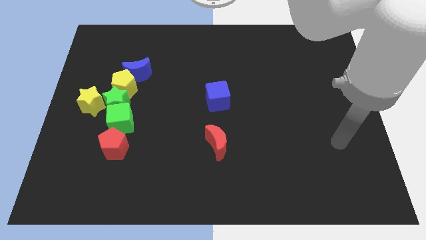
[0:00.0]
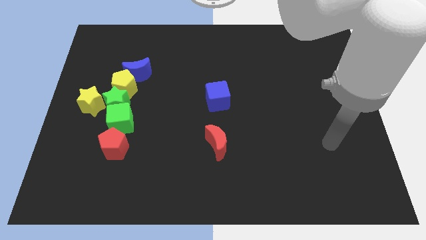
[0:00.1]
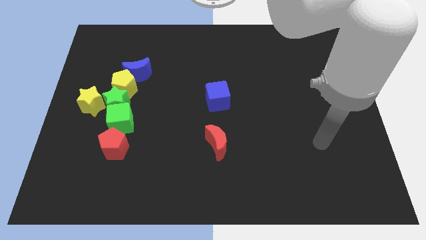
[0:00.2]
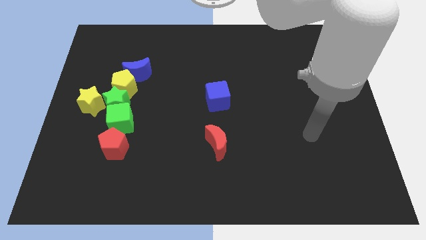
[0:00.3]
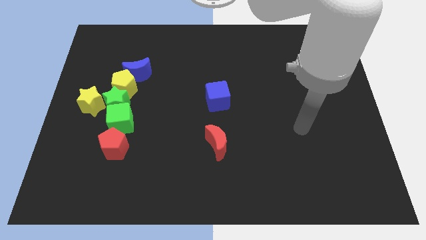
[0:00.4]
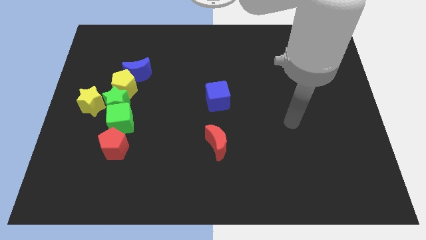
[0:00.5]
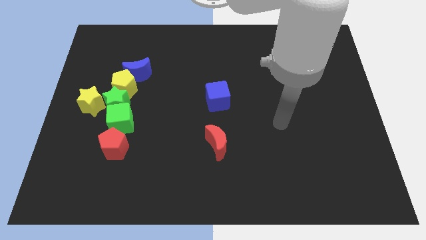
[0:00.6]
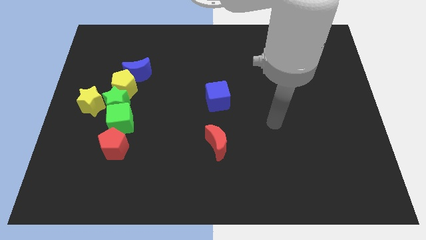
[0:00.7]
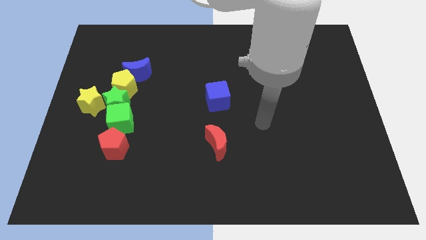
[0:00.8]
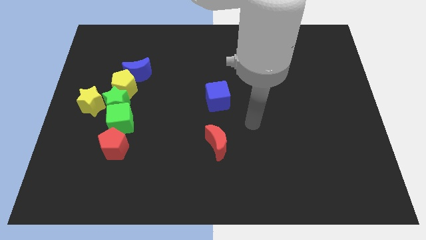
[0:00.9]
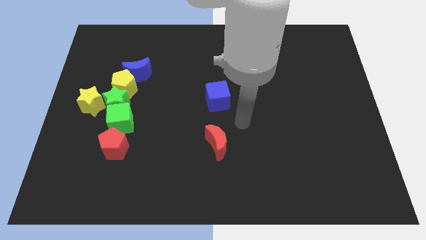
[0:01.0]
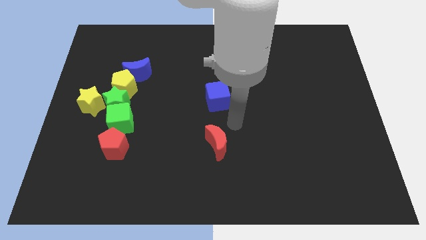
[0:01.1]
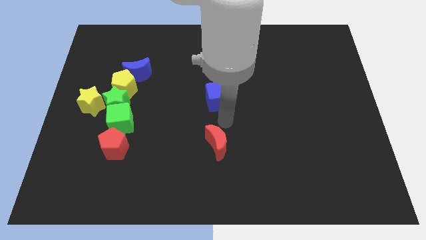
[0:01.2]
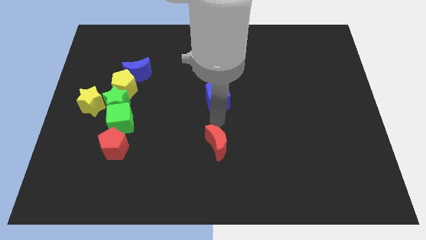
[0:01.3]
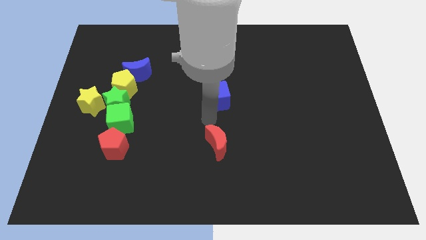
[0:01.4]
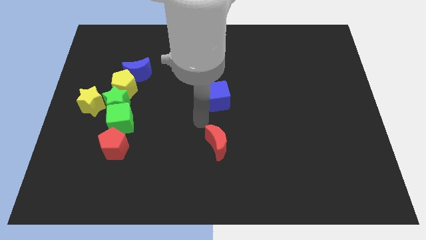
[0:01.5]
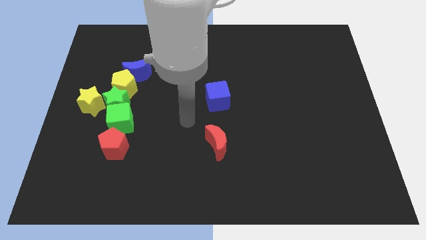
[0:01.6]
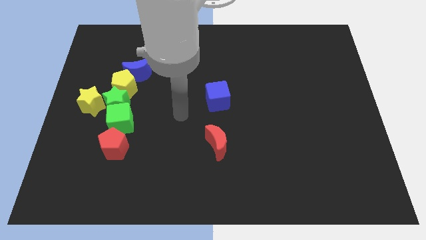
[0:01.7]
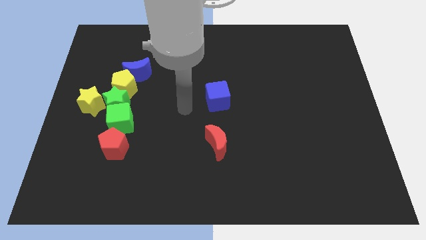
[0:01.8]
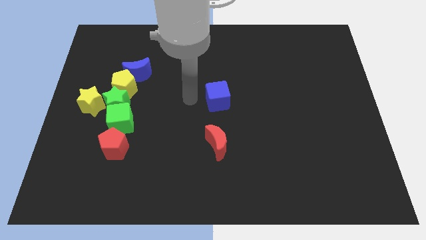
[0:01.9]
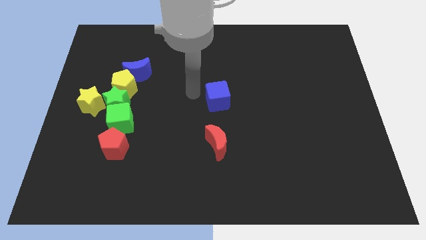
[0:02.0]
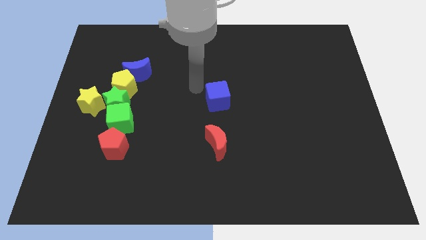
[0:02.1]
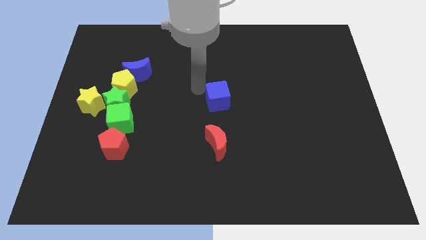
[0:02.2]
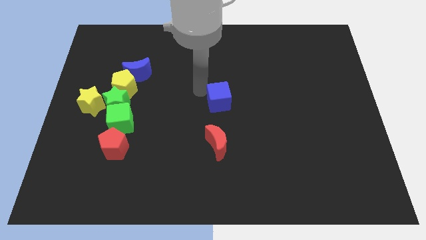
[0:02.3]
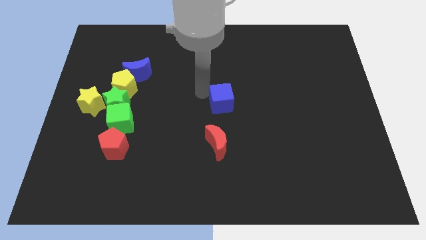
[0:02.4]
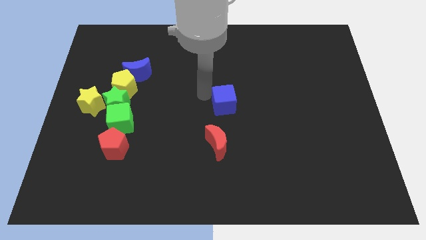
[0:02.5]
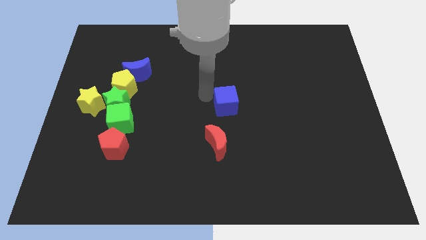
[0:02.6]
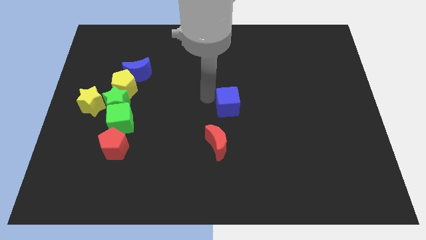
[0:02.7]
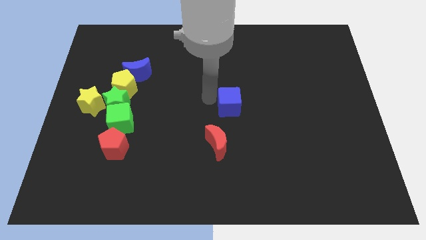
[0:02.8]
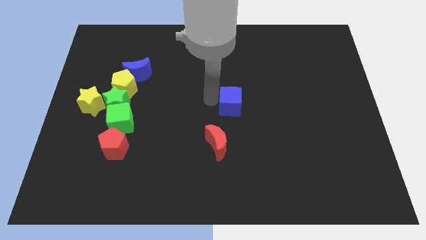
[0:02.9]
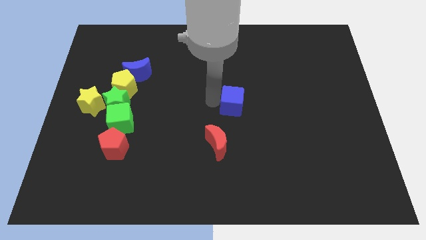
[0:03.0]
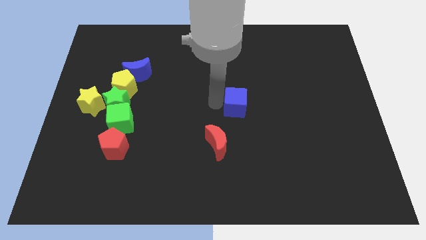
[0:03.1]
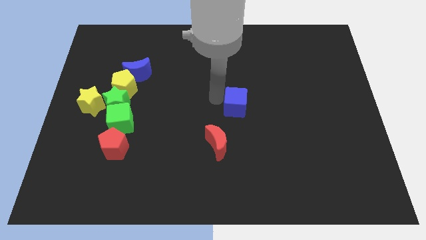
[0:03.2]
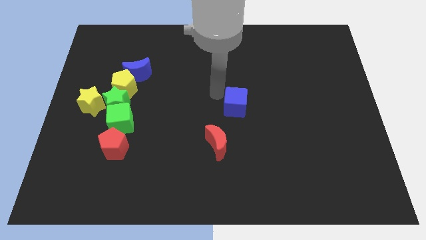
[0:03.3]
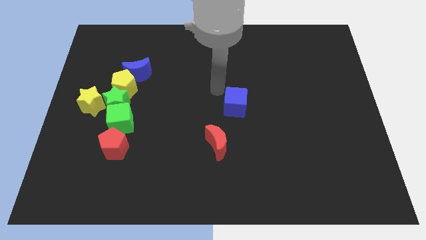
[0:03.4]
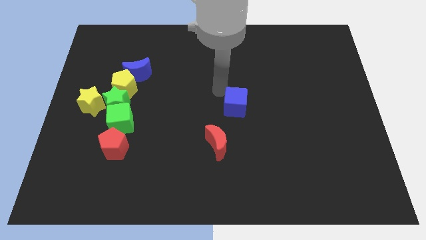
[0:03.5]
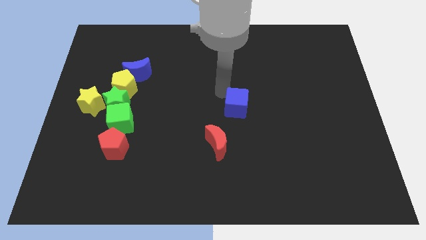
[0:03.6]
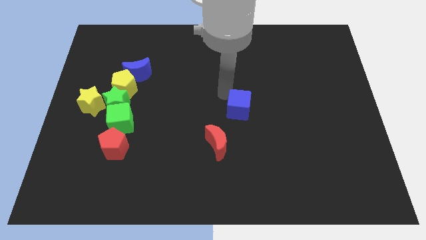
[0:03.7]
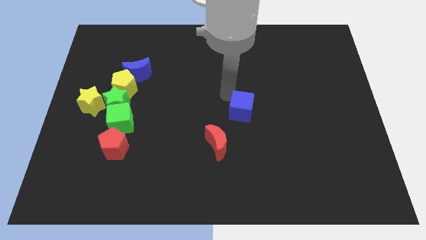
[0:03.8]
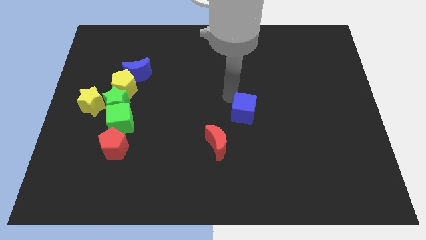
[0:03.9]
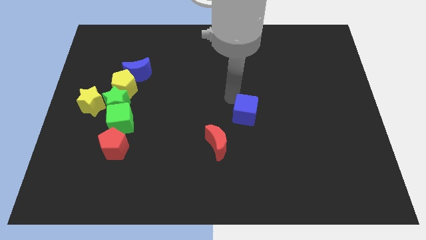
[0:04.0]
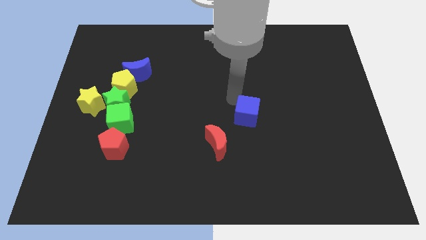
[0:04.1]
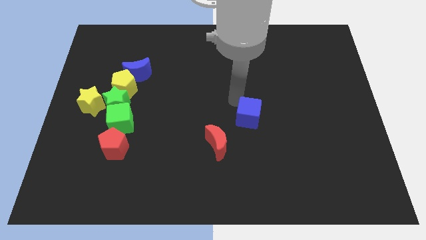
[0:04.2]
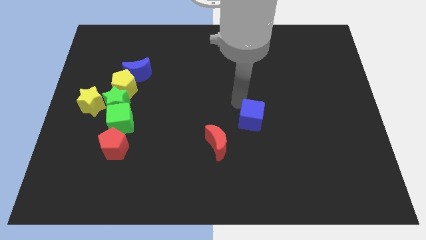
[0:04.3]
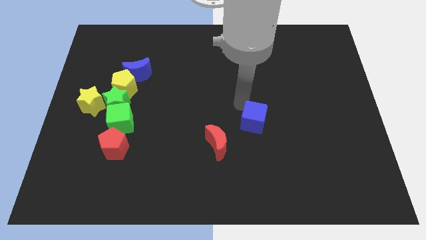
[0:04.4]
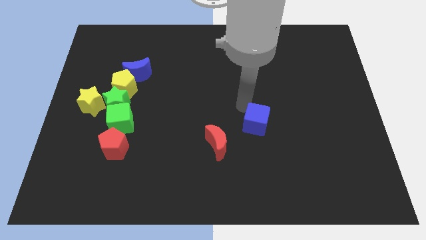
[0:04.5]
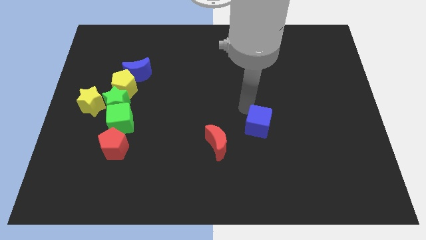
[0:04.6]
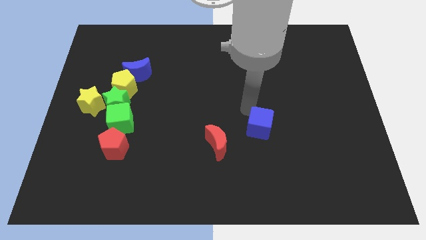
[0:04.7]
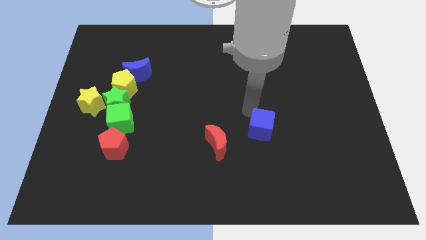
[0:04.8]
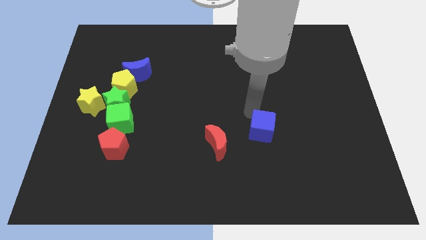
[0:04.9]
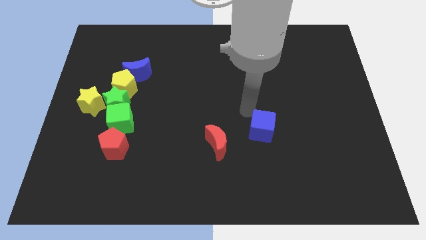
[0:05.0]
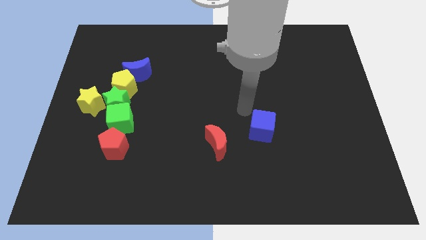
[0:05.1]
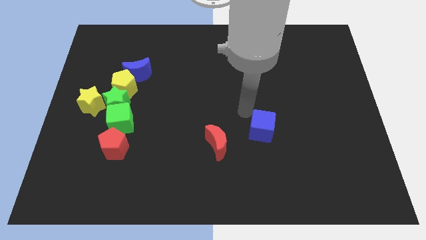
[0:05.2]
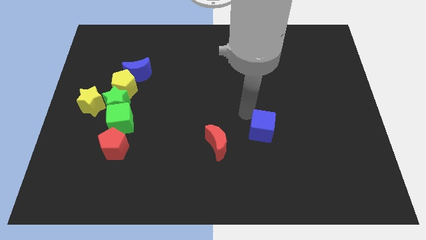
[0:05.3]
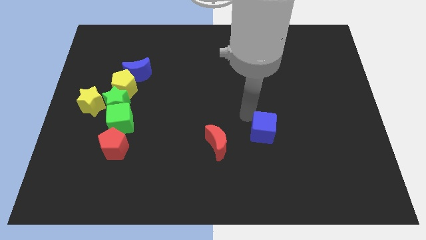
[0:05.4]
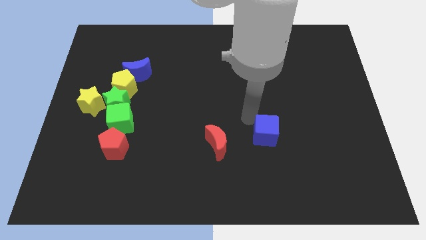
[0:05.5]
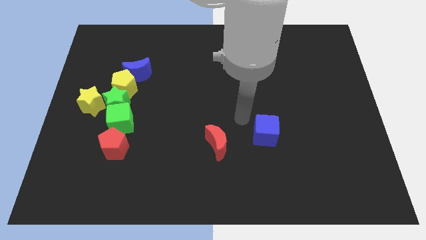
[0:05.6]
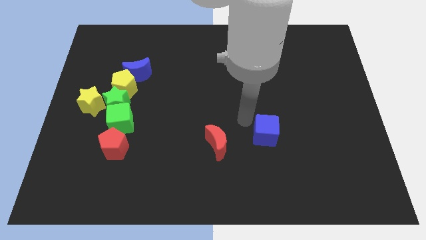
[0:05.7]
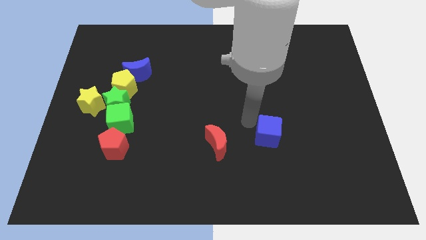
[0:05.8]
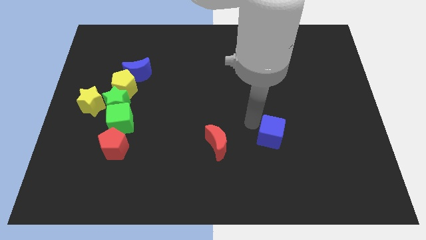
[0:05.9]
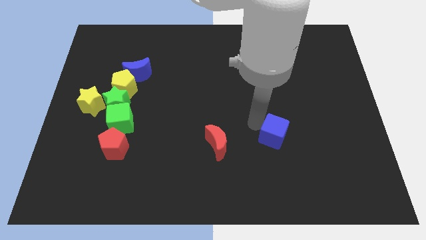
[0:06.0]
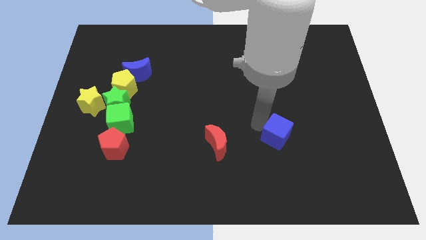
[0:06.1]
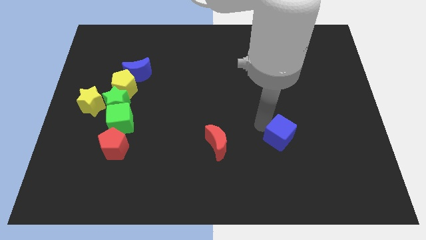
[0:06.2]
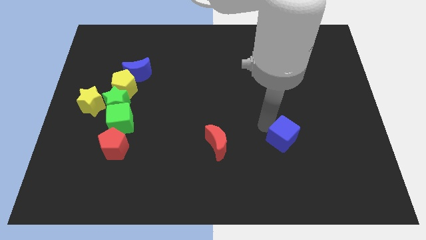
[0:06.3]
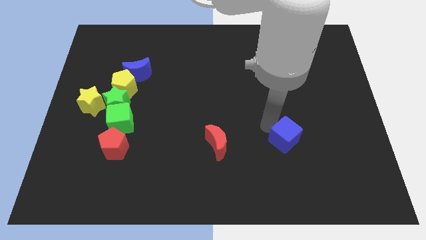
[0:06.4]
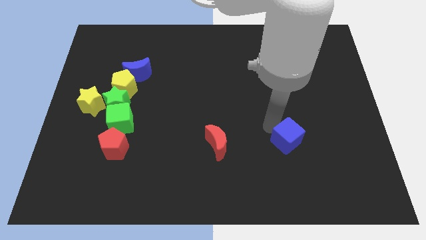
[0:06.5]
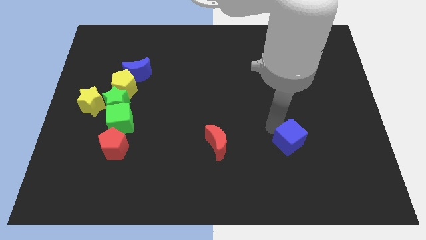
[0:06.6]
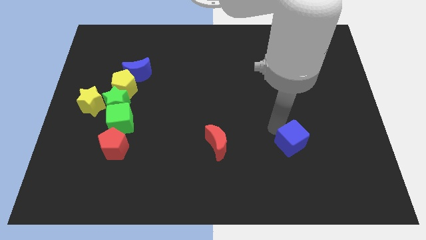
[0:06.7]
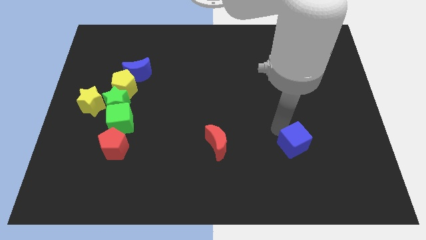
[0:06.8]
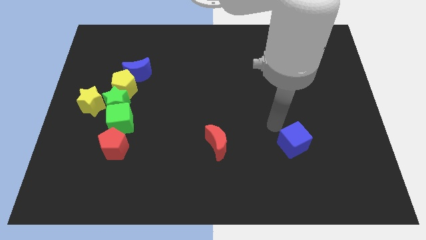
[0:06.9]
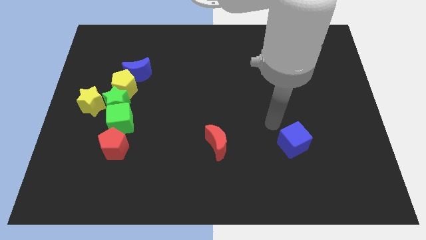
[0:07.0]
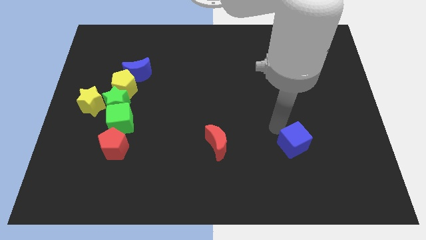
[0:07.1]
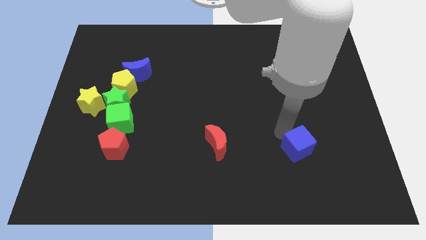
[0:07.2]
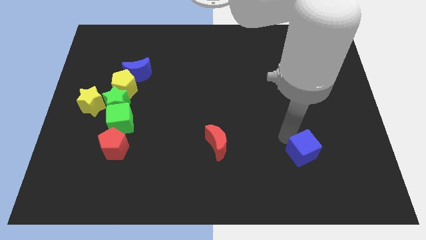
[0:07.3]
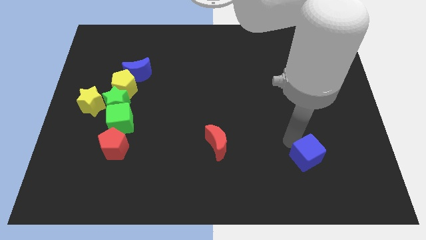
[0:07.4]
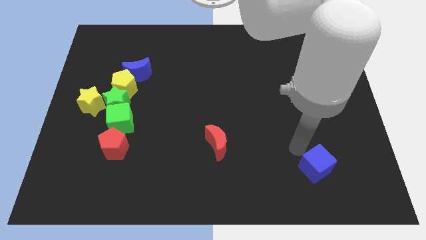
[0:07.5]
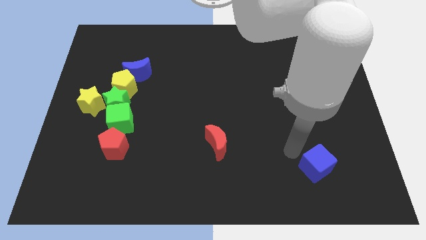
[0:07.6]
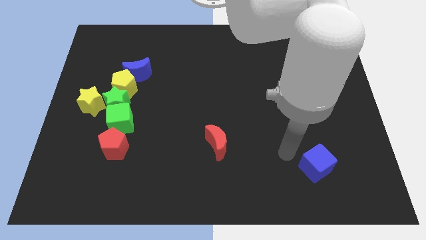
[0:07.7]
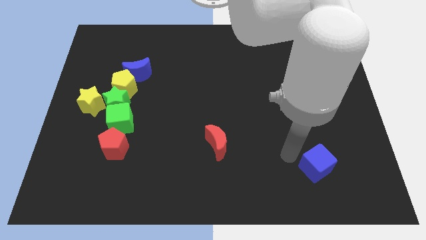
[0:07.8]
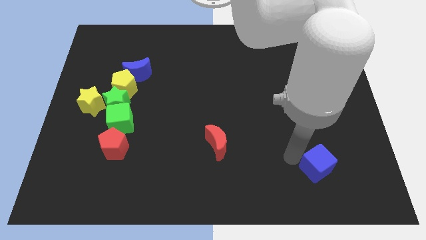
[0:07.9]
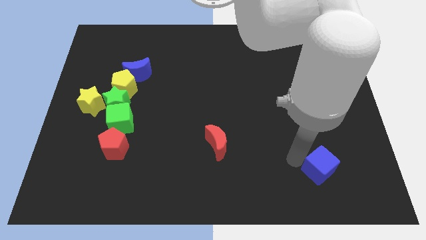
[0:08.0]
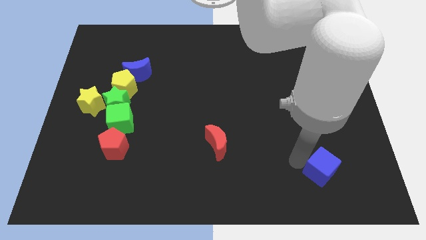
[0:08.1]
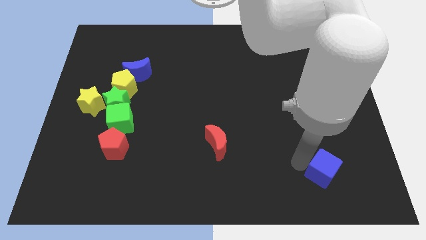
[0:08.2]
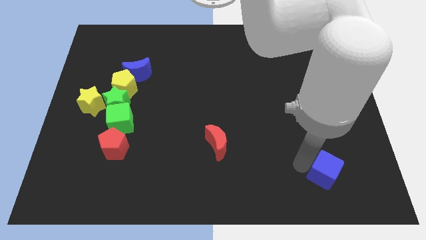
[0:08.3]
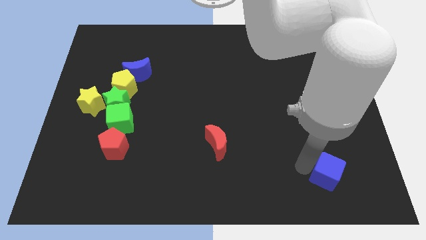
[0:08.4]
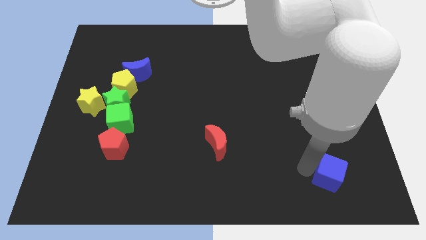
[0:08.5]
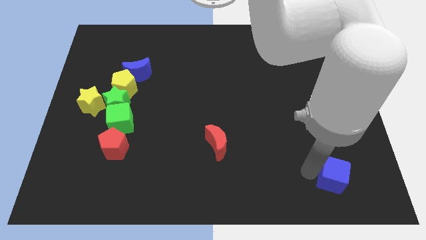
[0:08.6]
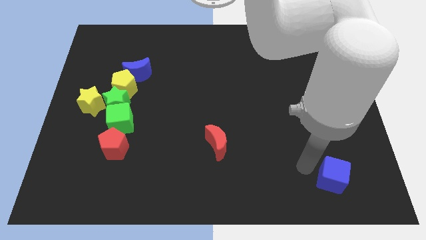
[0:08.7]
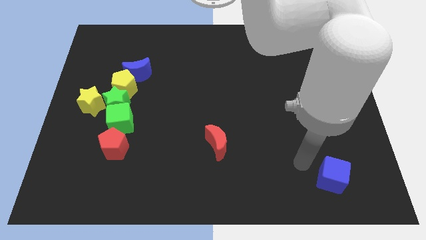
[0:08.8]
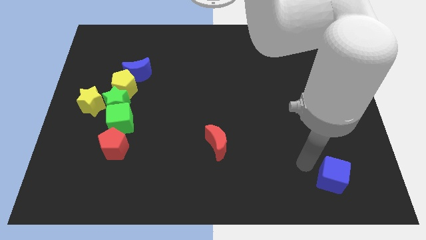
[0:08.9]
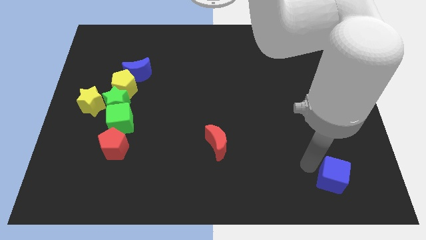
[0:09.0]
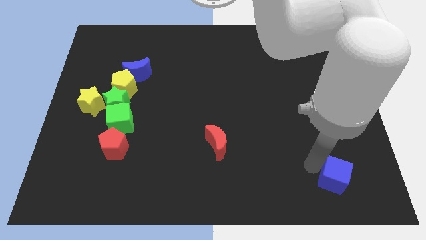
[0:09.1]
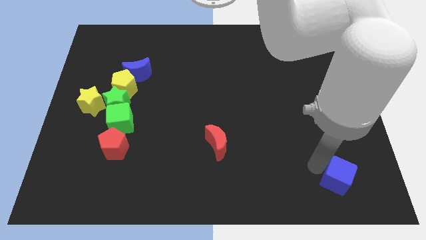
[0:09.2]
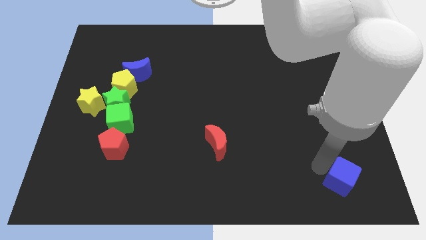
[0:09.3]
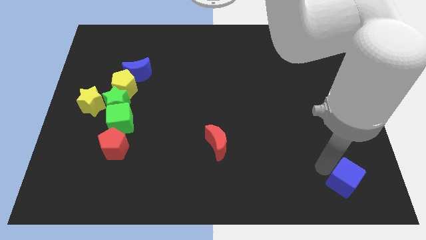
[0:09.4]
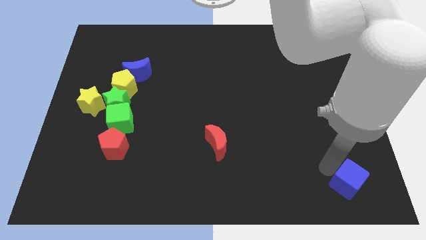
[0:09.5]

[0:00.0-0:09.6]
move the blue cube to the lower right corner
